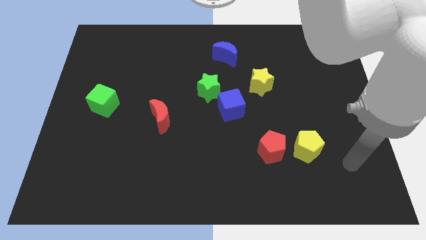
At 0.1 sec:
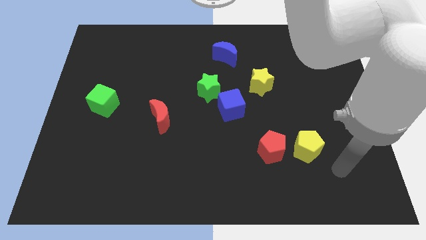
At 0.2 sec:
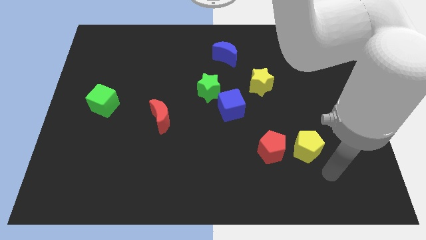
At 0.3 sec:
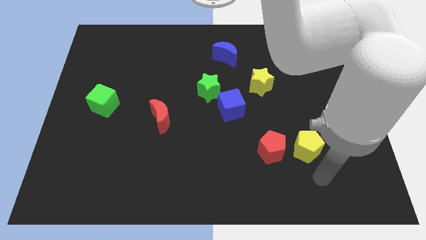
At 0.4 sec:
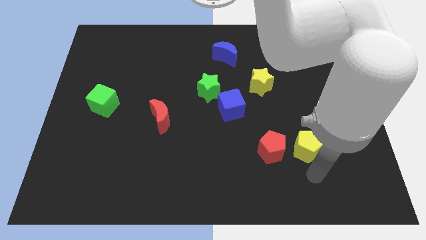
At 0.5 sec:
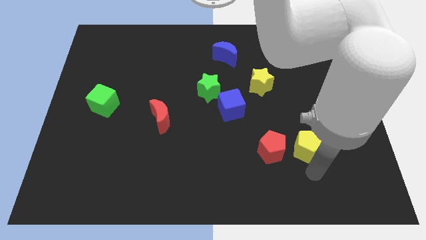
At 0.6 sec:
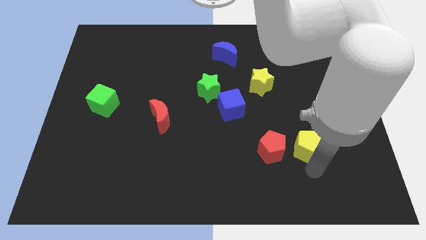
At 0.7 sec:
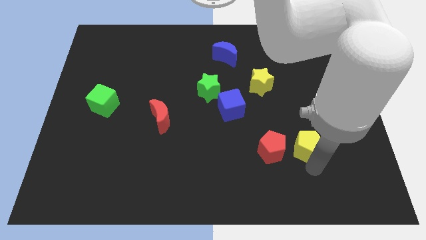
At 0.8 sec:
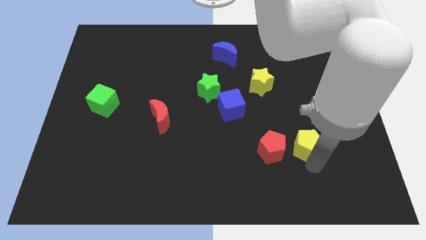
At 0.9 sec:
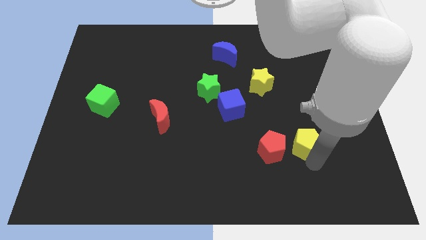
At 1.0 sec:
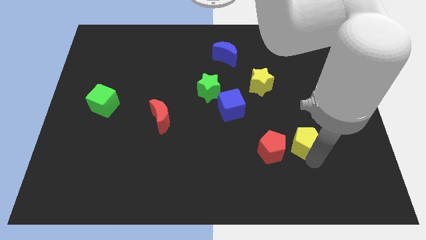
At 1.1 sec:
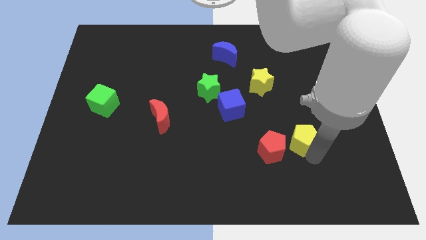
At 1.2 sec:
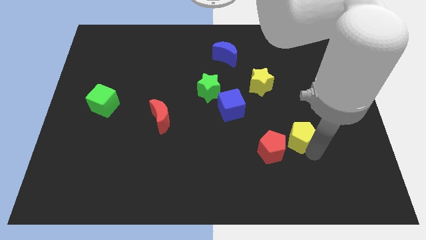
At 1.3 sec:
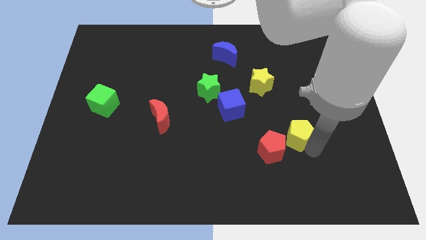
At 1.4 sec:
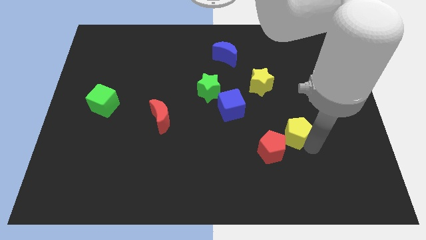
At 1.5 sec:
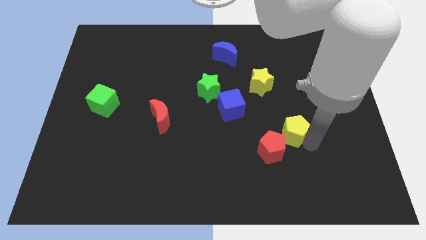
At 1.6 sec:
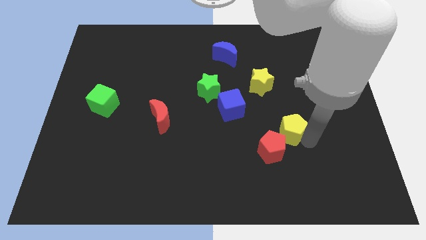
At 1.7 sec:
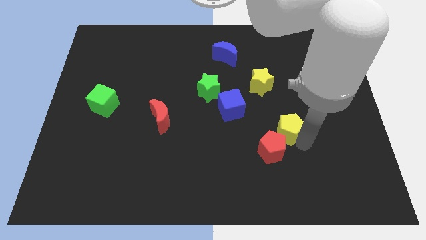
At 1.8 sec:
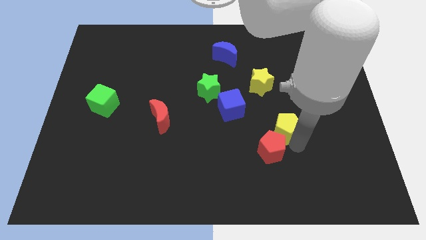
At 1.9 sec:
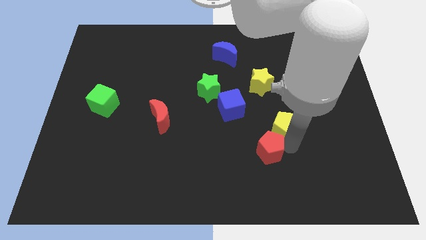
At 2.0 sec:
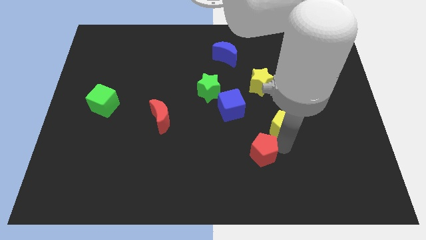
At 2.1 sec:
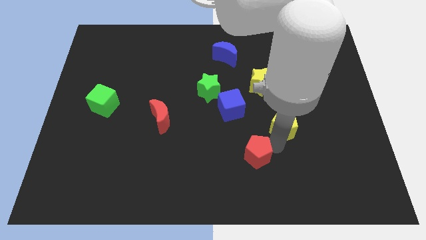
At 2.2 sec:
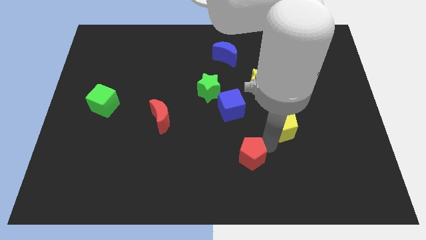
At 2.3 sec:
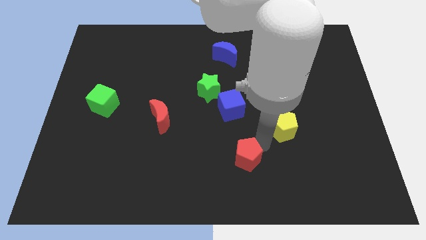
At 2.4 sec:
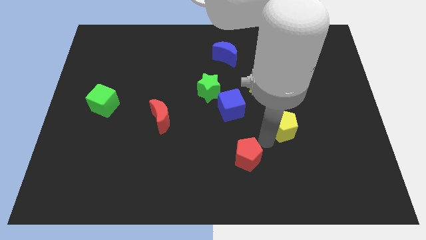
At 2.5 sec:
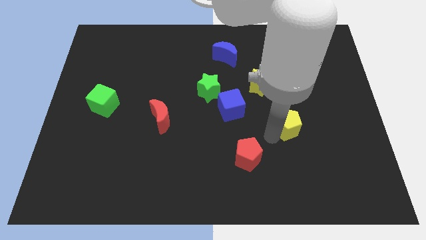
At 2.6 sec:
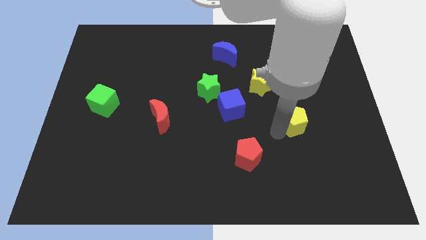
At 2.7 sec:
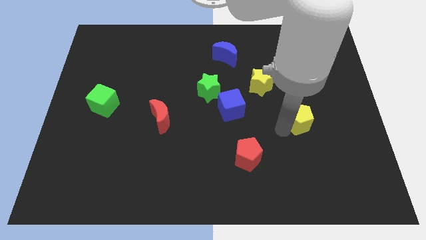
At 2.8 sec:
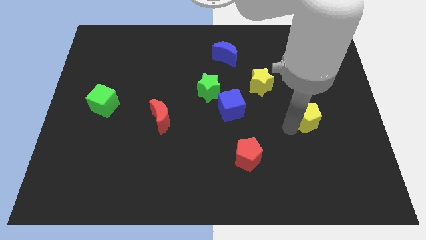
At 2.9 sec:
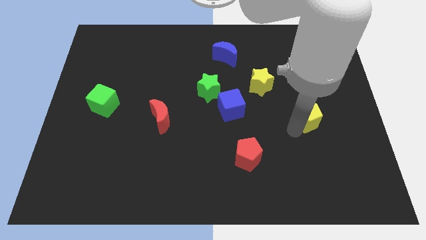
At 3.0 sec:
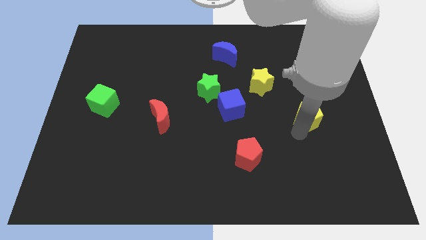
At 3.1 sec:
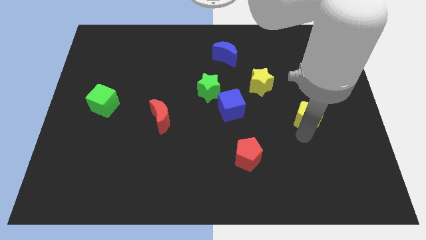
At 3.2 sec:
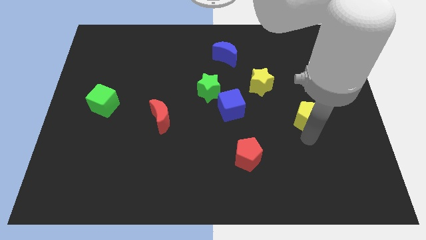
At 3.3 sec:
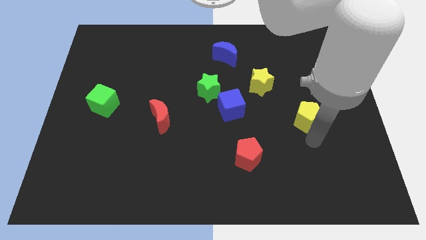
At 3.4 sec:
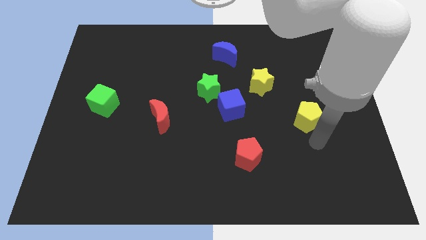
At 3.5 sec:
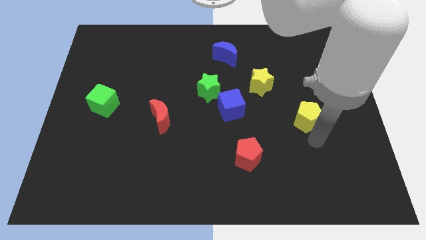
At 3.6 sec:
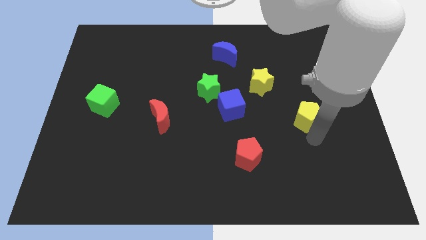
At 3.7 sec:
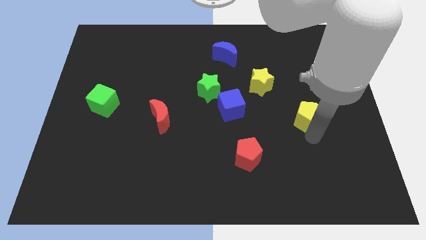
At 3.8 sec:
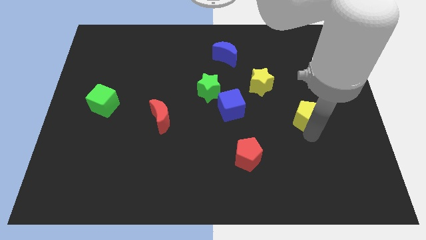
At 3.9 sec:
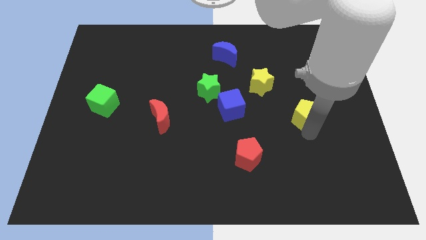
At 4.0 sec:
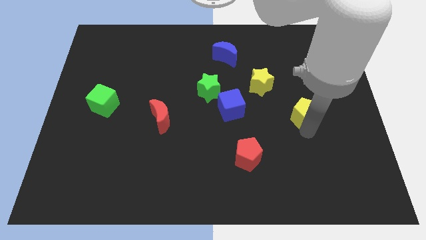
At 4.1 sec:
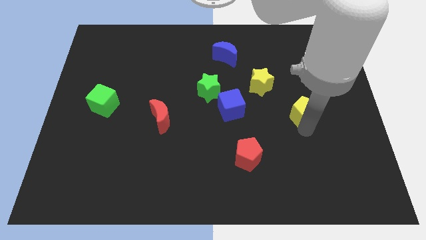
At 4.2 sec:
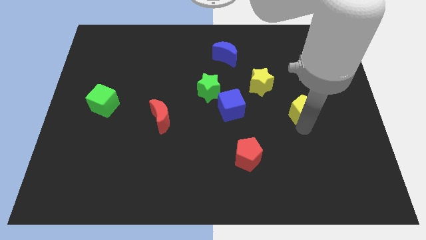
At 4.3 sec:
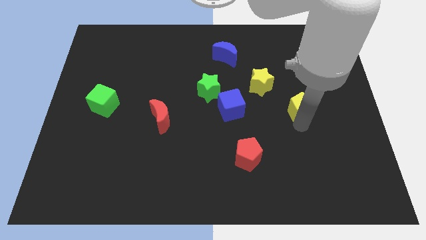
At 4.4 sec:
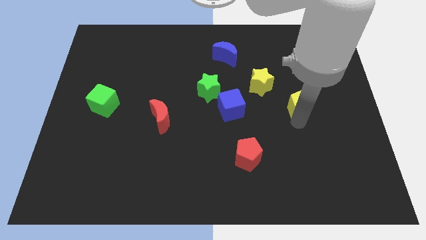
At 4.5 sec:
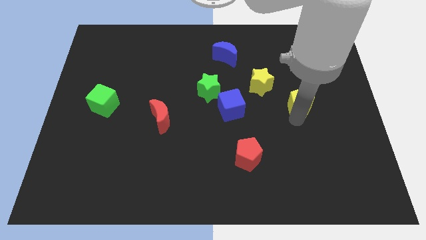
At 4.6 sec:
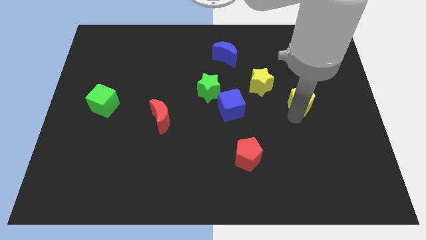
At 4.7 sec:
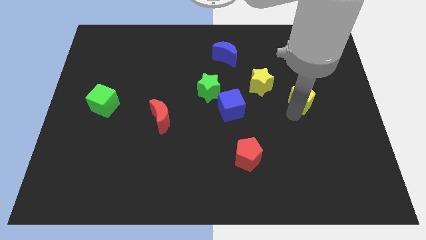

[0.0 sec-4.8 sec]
move the yellow pentagon to the right of the yellow star

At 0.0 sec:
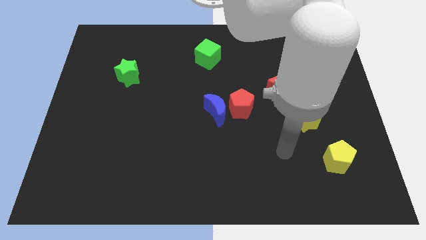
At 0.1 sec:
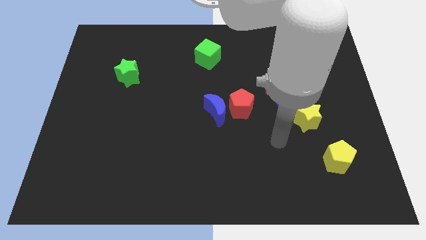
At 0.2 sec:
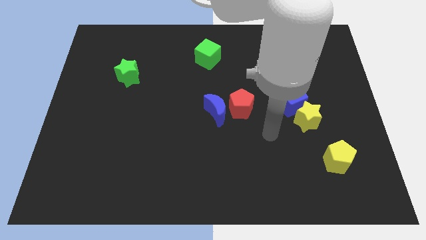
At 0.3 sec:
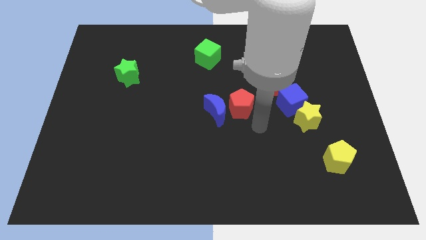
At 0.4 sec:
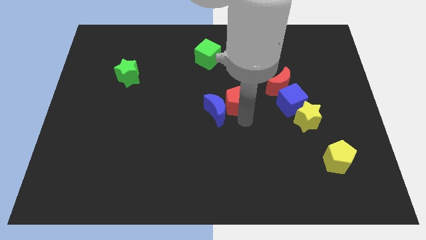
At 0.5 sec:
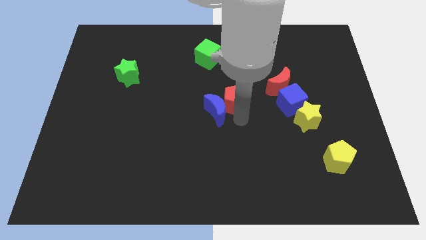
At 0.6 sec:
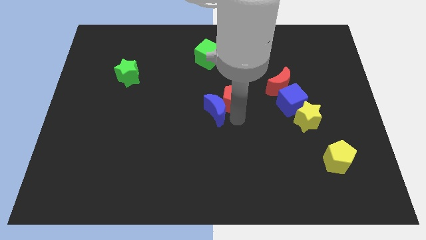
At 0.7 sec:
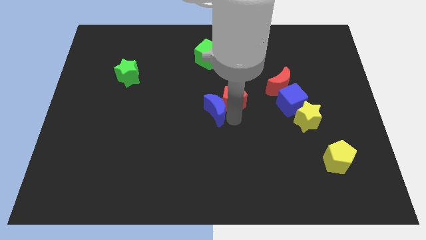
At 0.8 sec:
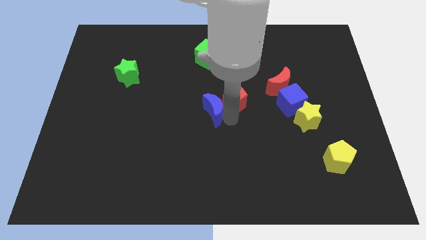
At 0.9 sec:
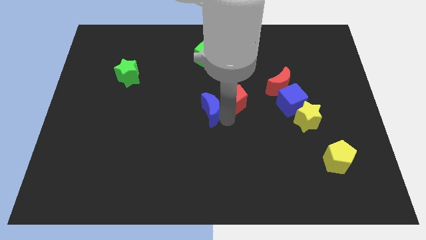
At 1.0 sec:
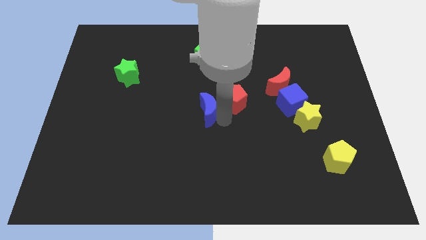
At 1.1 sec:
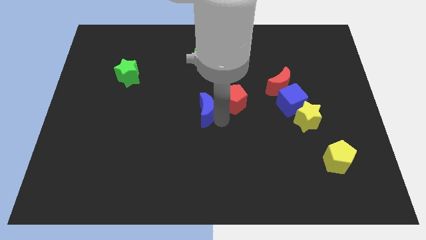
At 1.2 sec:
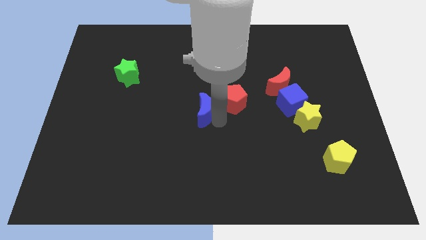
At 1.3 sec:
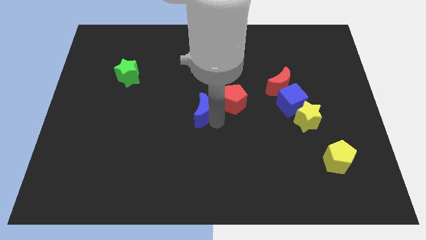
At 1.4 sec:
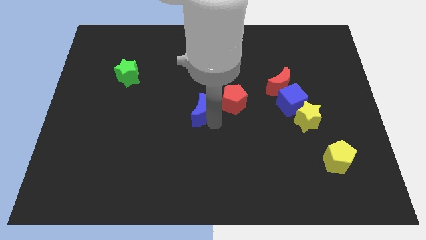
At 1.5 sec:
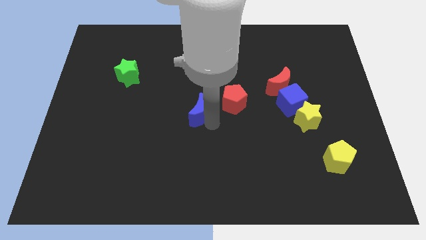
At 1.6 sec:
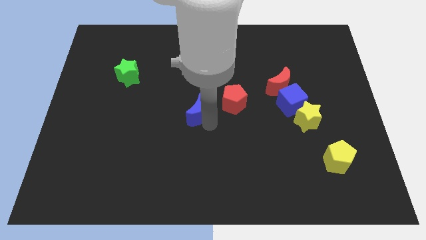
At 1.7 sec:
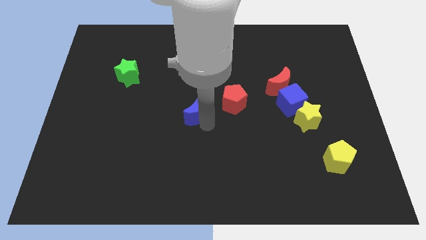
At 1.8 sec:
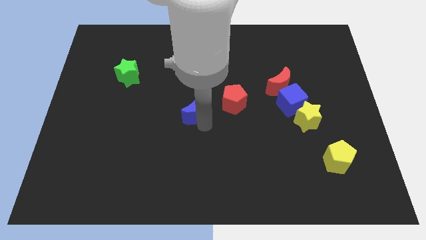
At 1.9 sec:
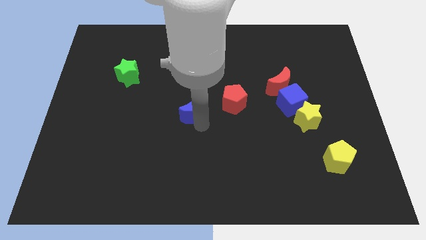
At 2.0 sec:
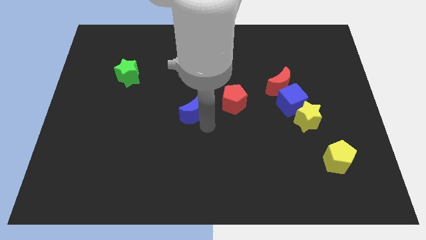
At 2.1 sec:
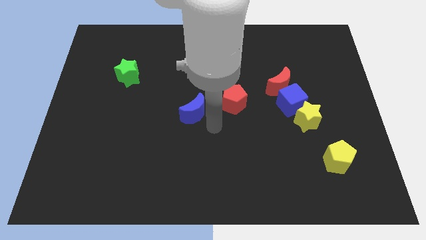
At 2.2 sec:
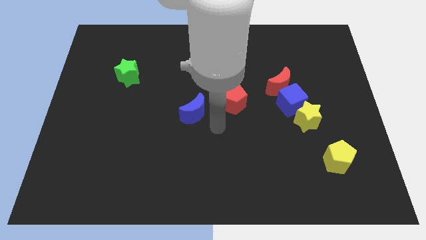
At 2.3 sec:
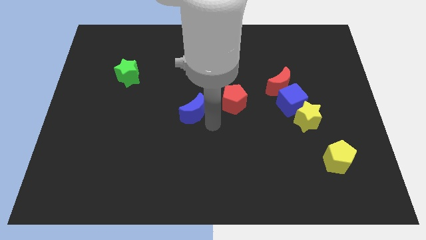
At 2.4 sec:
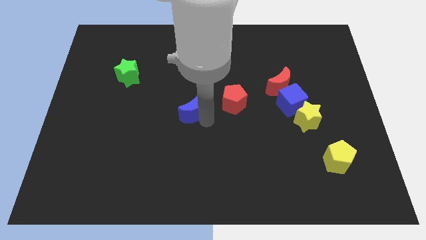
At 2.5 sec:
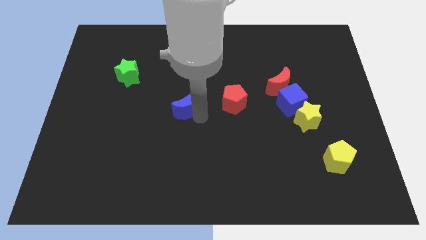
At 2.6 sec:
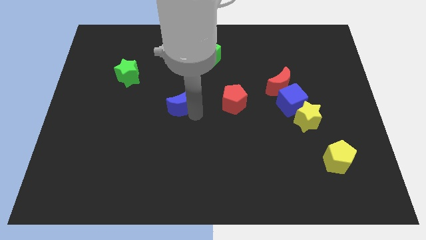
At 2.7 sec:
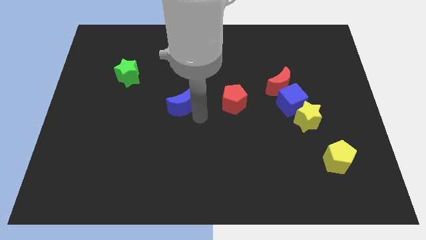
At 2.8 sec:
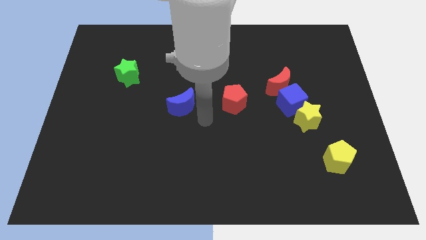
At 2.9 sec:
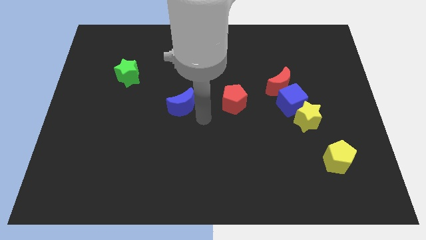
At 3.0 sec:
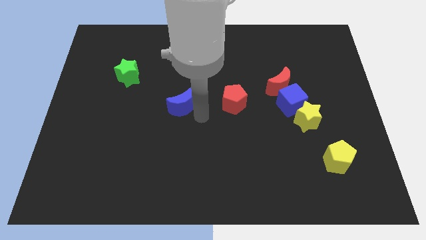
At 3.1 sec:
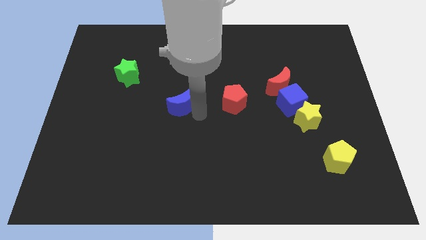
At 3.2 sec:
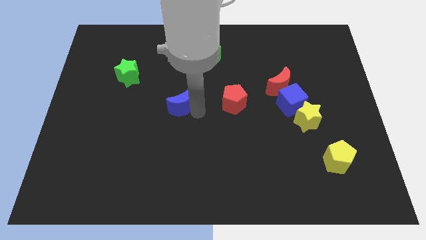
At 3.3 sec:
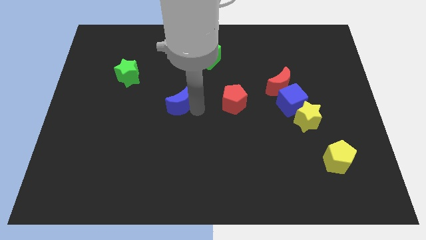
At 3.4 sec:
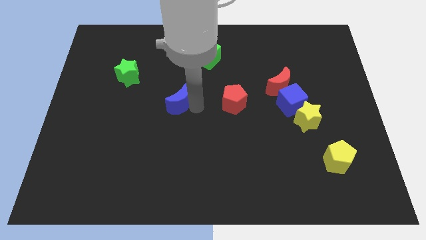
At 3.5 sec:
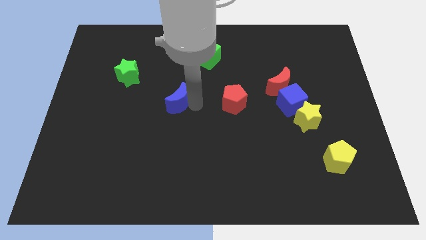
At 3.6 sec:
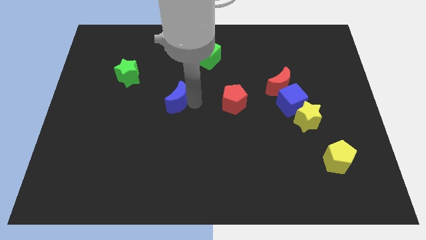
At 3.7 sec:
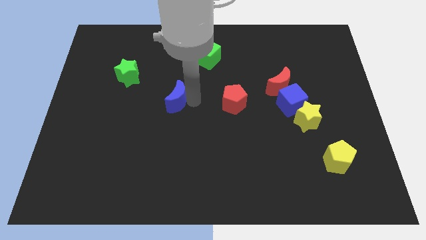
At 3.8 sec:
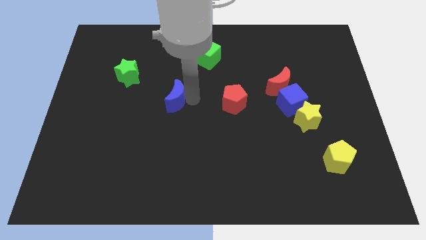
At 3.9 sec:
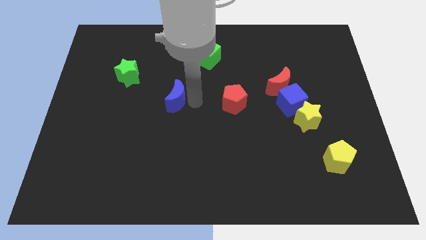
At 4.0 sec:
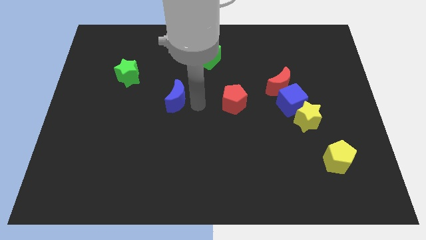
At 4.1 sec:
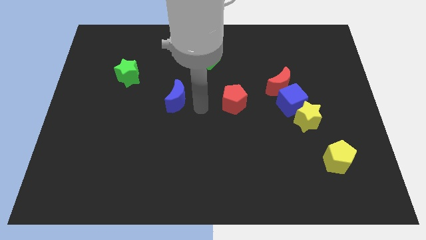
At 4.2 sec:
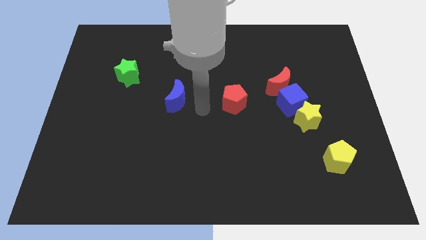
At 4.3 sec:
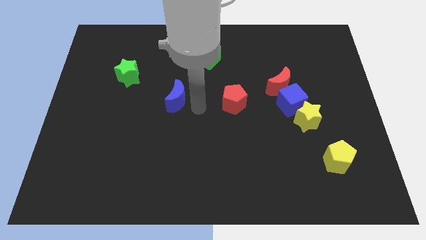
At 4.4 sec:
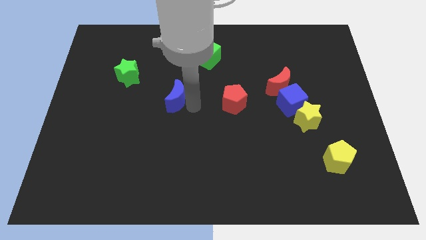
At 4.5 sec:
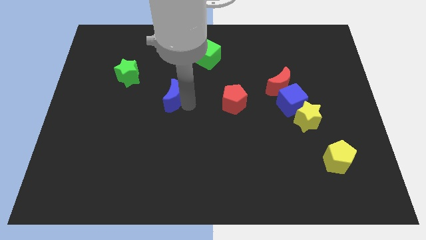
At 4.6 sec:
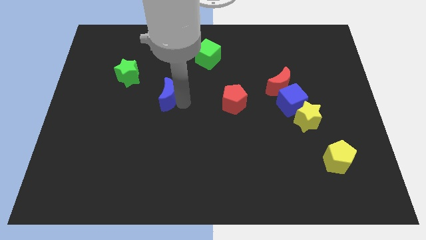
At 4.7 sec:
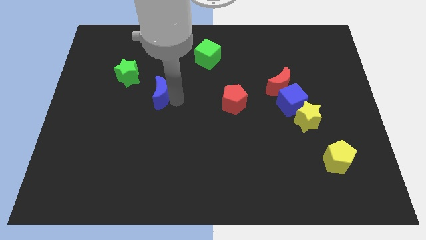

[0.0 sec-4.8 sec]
slide the blue moon to the bottom right of the green star
